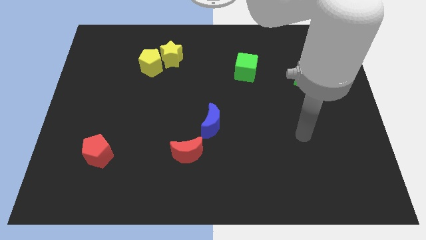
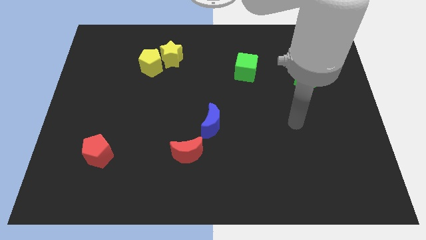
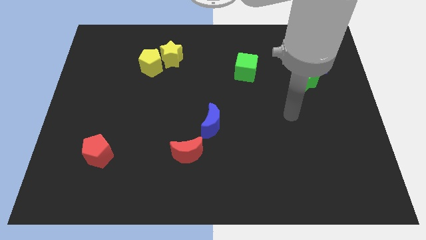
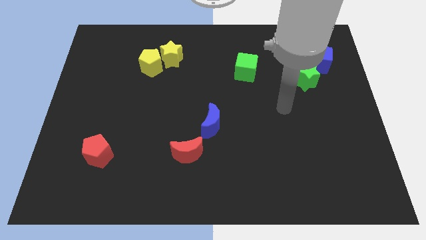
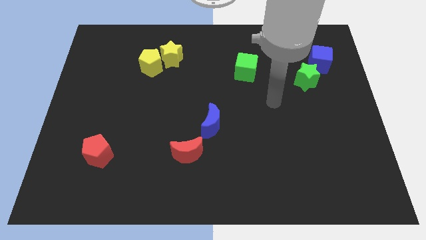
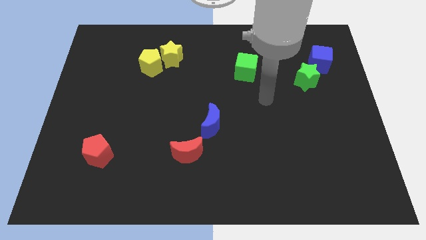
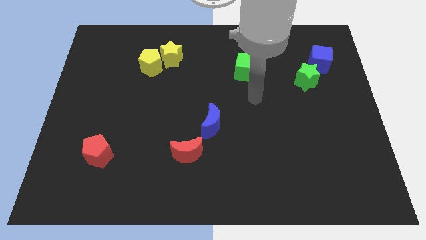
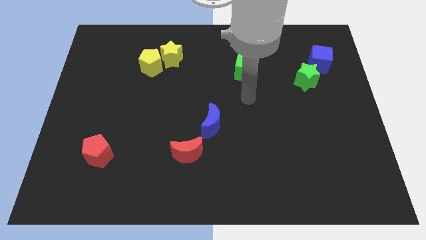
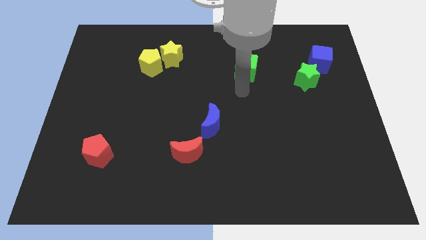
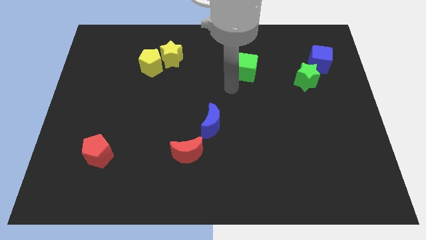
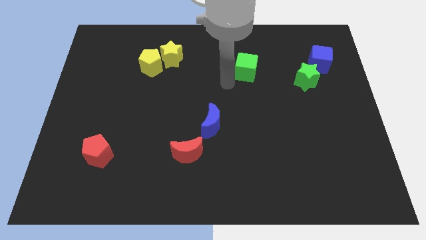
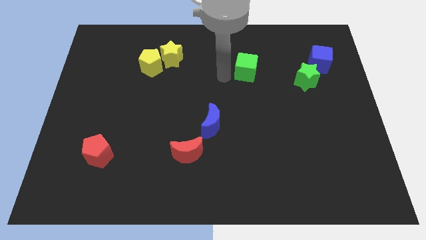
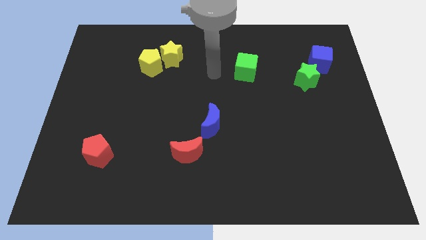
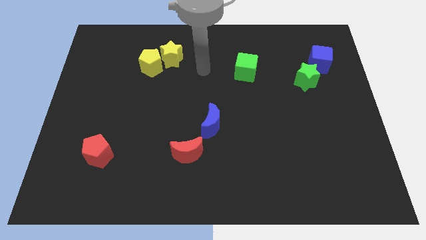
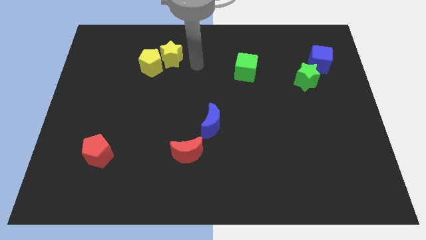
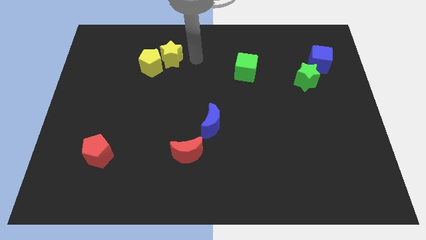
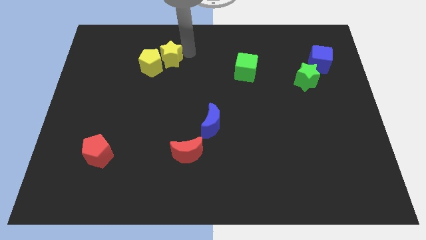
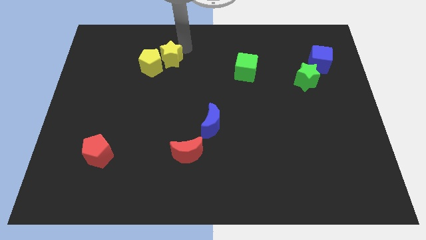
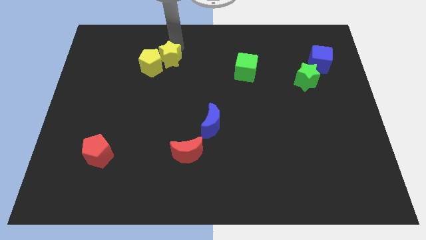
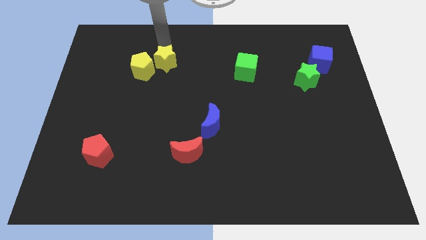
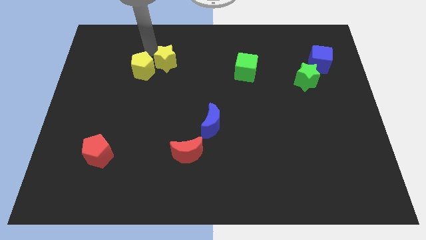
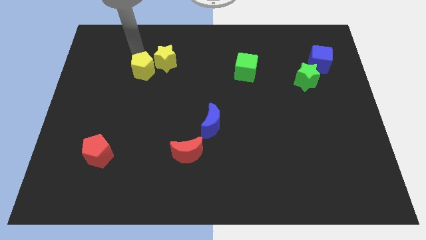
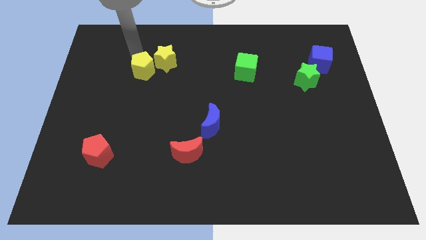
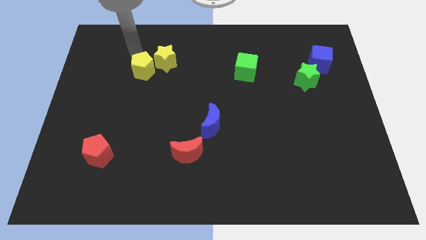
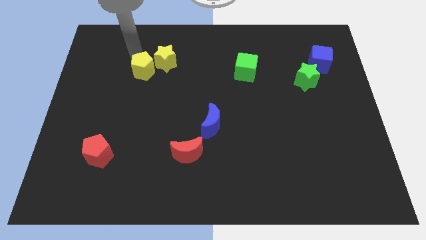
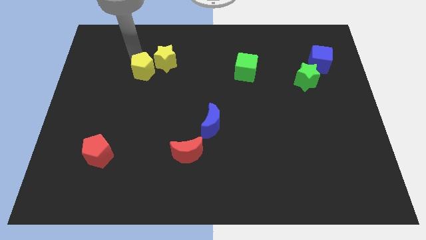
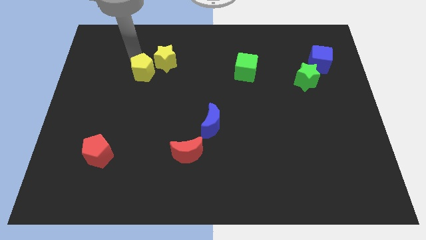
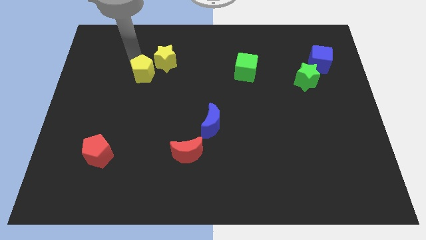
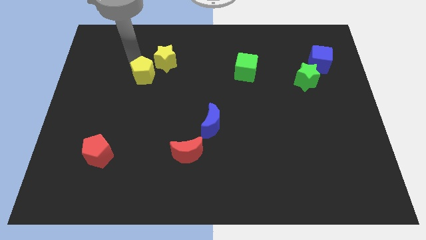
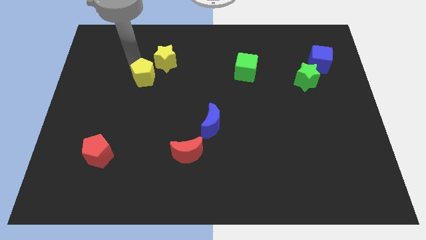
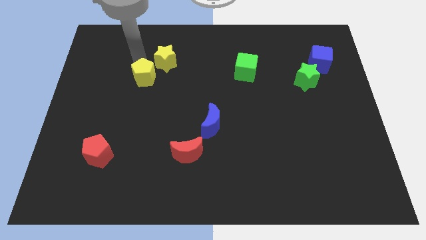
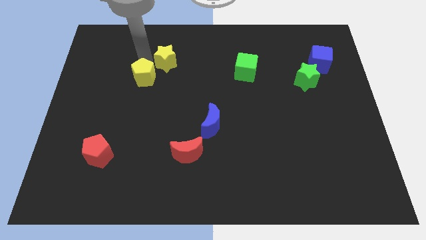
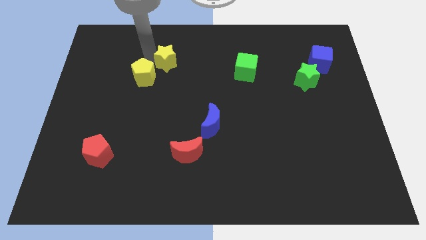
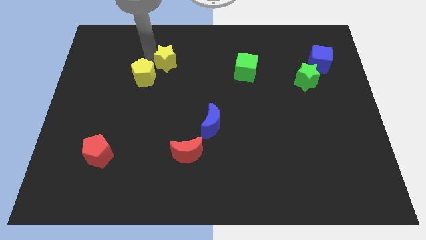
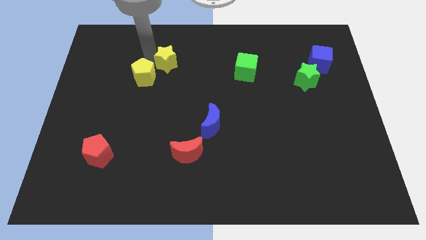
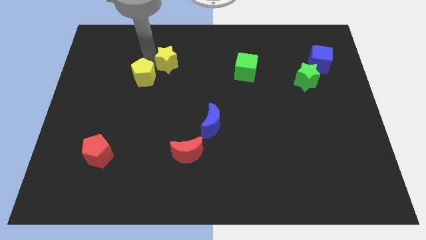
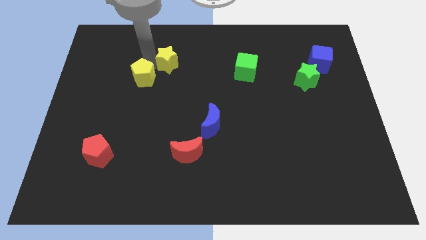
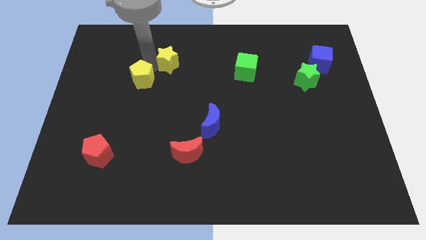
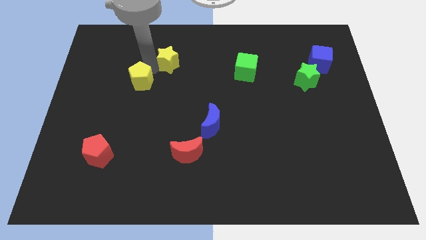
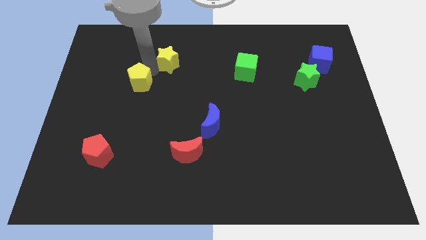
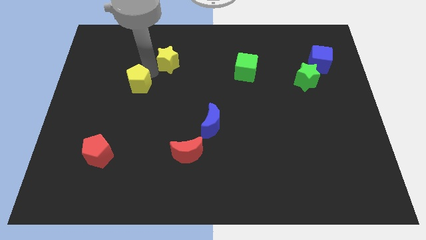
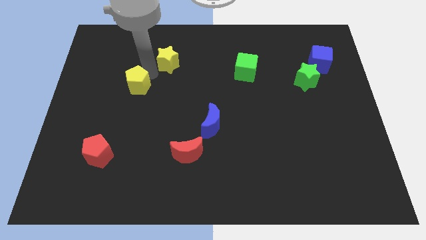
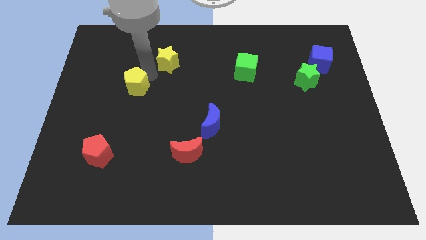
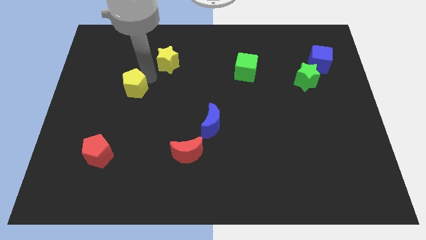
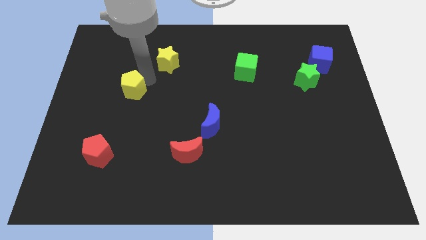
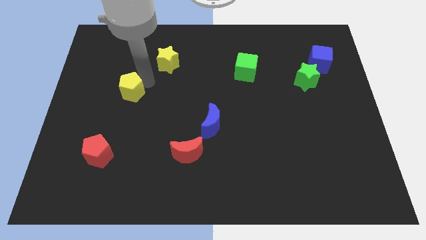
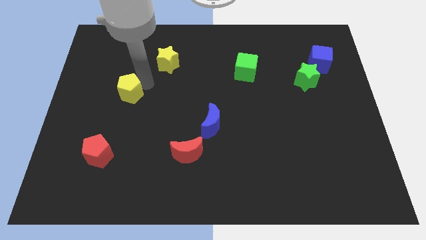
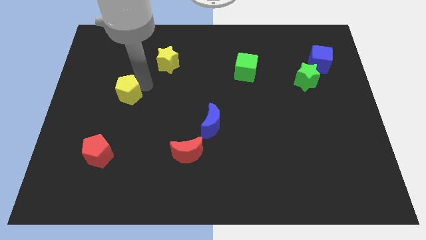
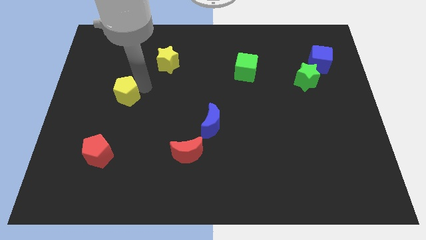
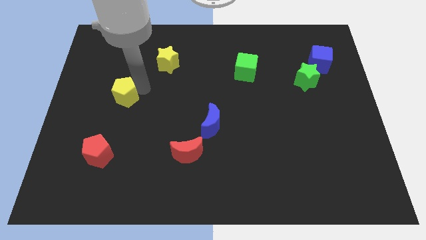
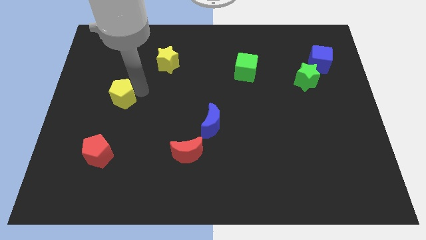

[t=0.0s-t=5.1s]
slide the yellow pentagon to the top side of the red pentagon

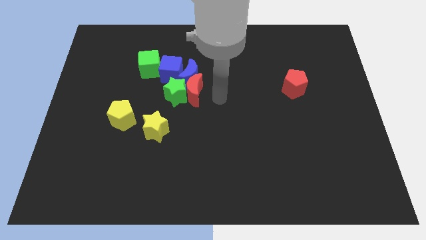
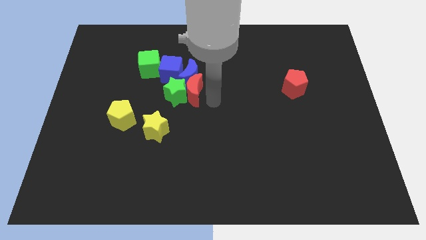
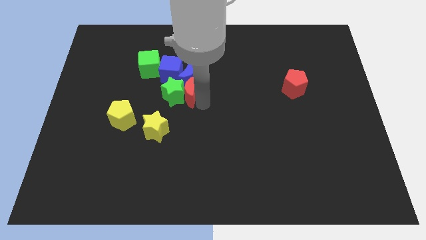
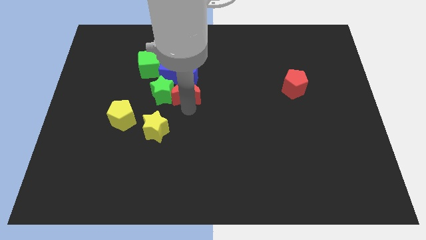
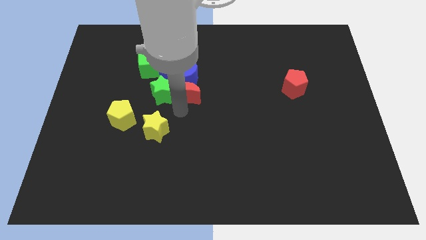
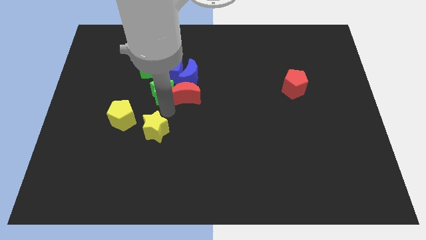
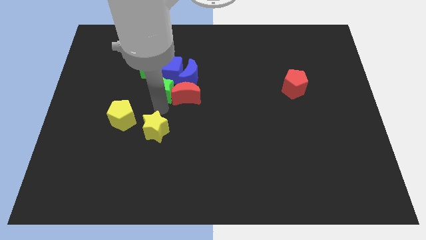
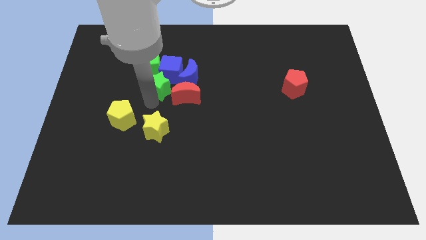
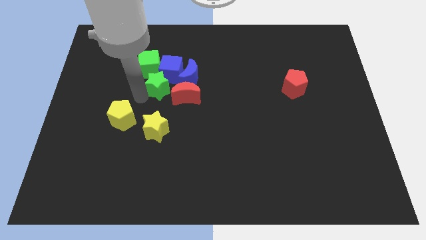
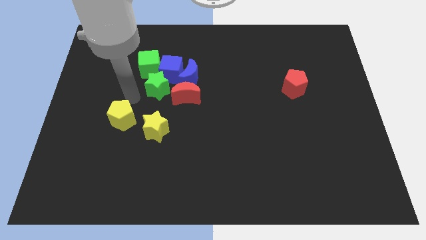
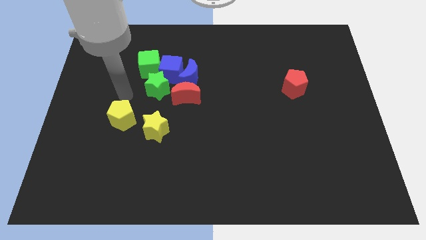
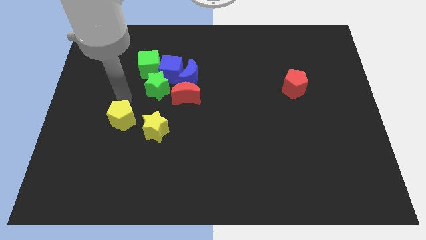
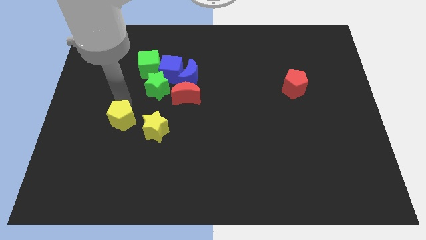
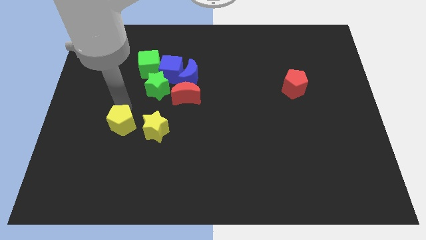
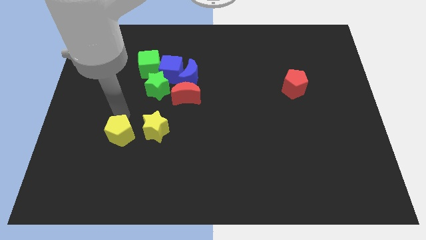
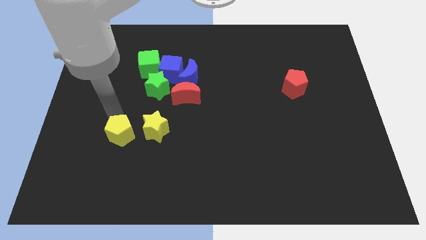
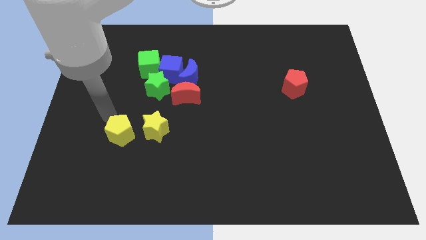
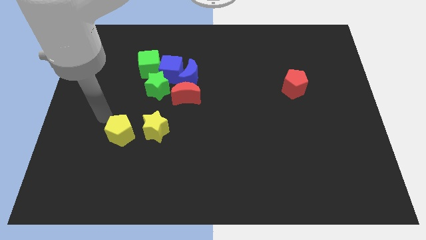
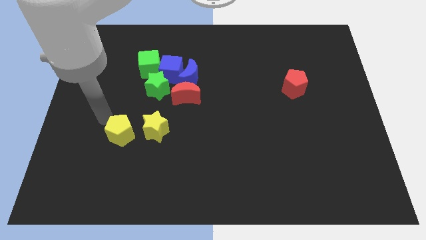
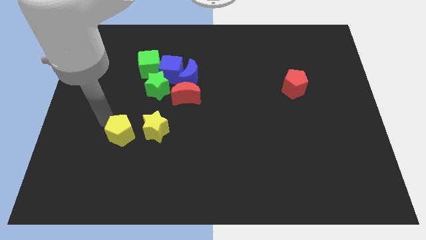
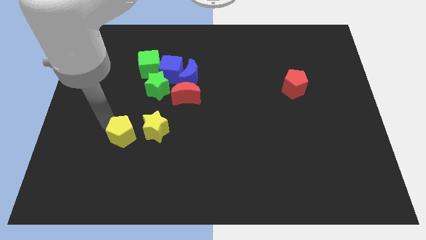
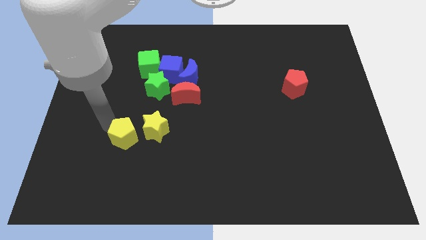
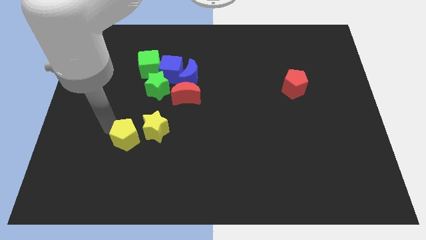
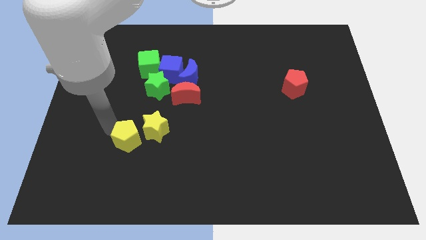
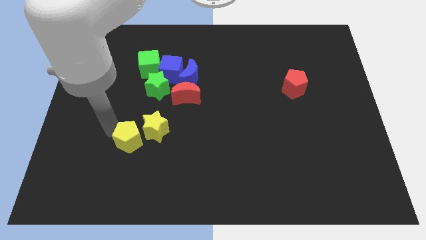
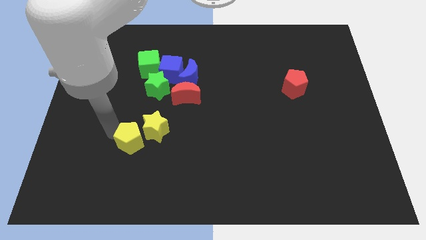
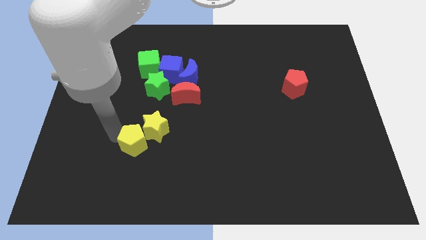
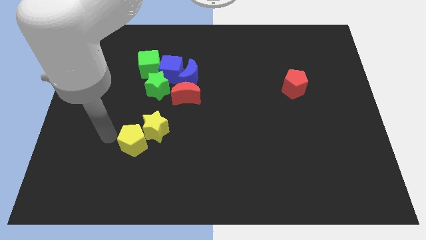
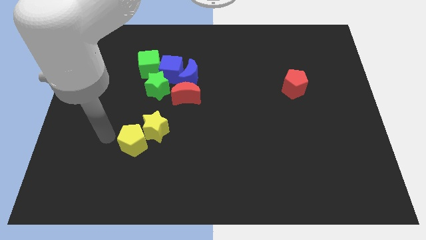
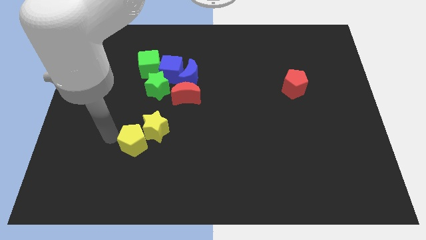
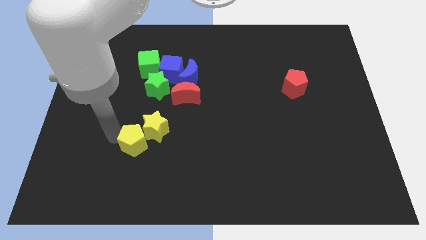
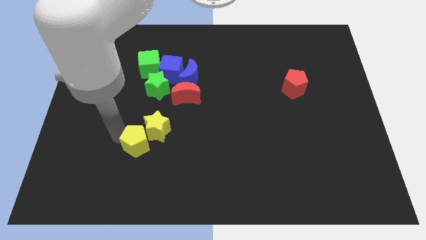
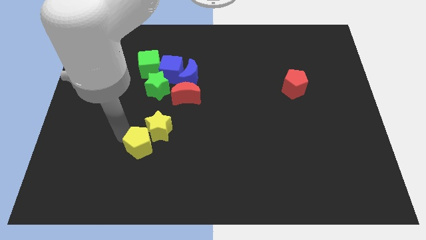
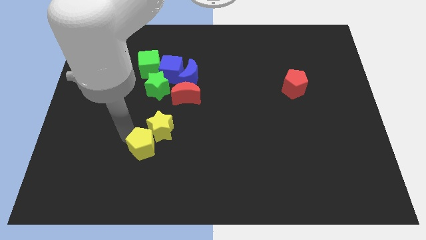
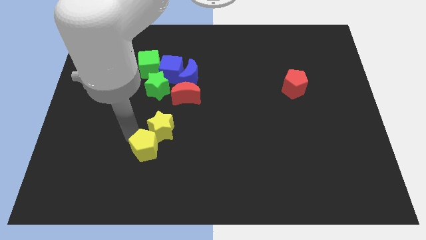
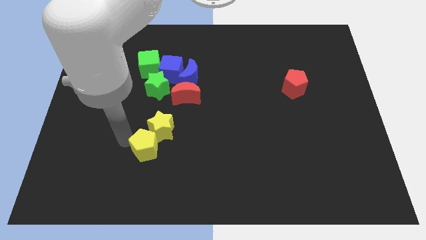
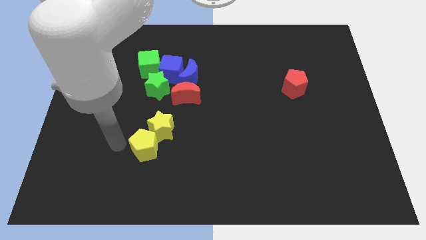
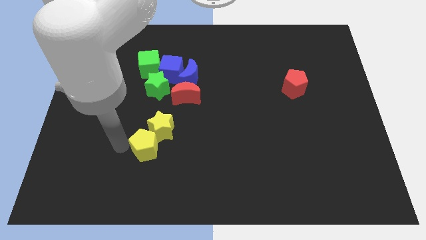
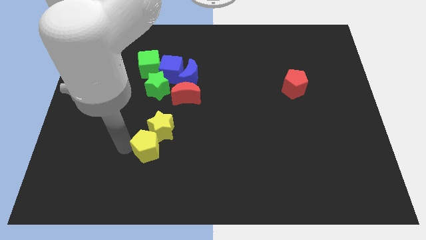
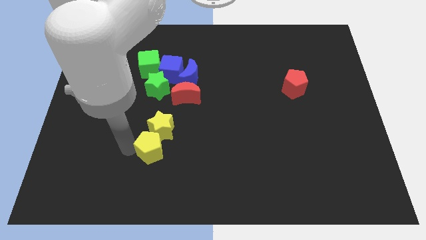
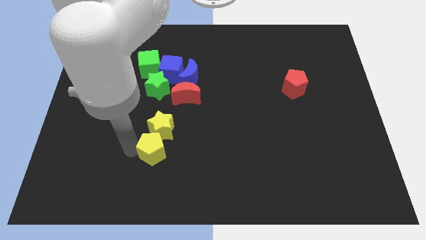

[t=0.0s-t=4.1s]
move the yellow pentagon to the bottom right side of the yellow star
